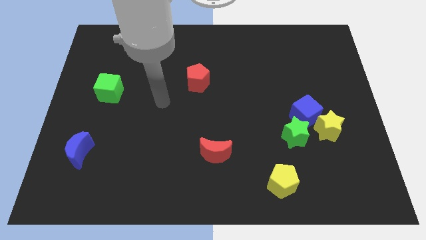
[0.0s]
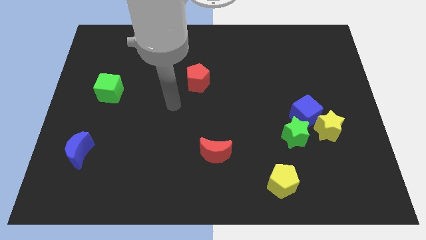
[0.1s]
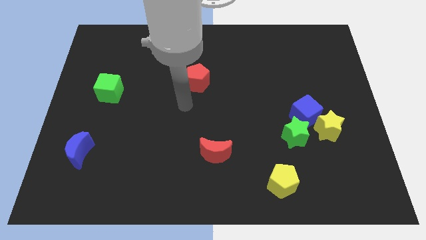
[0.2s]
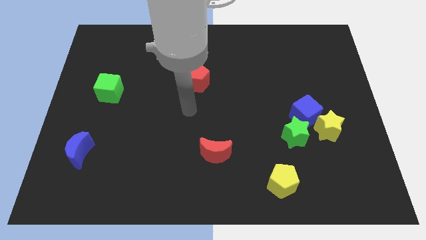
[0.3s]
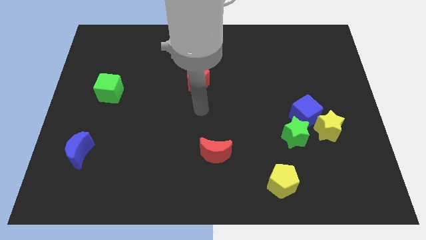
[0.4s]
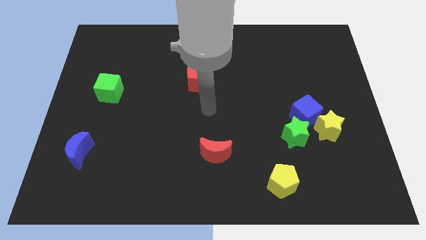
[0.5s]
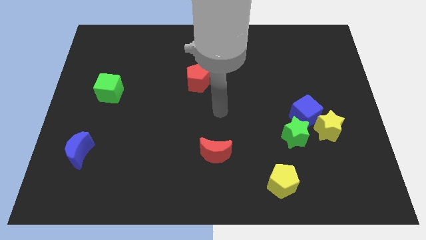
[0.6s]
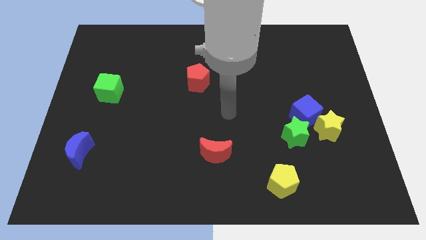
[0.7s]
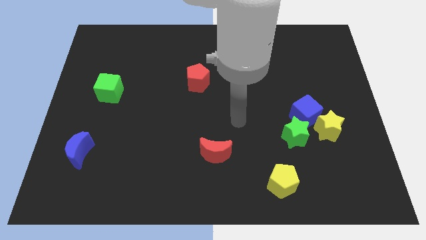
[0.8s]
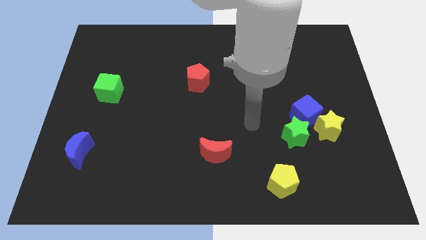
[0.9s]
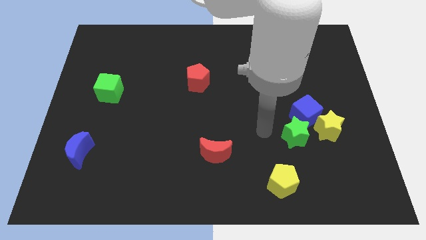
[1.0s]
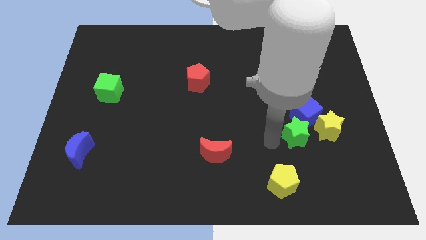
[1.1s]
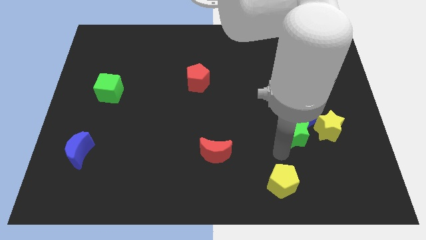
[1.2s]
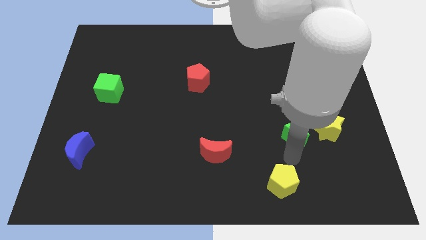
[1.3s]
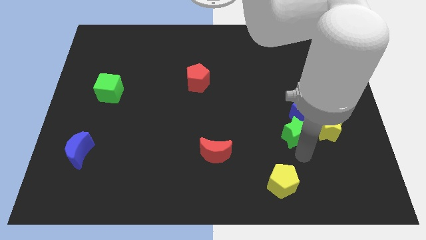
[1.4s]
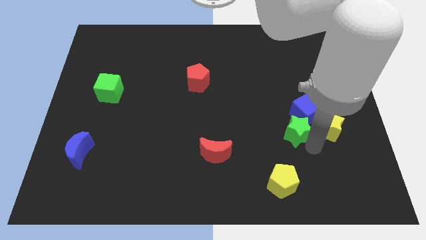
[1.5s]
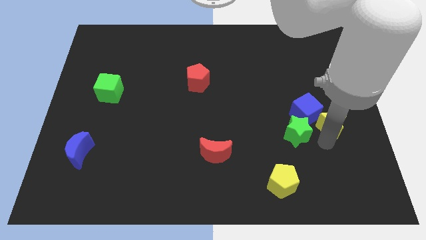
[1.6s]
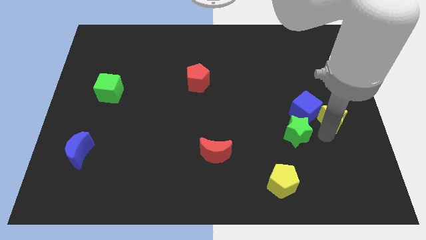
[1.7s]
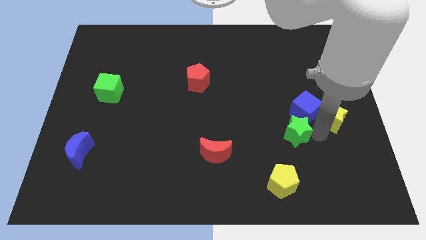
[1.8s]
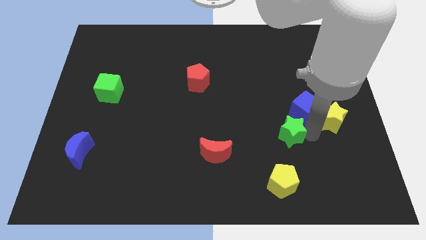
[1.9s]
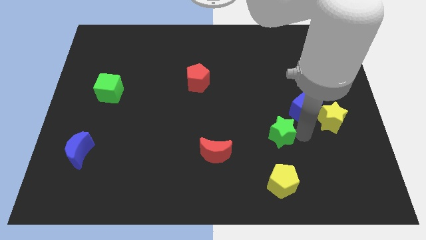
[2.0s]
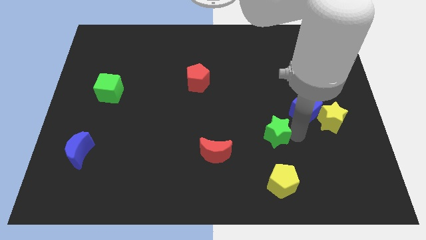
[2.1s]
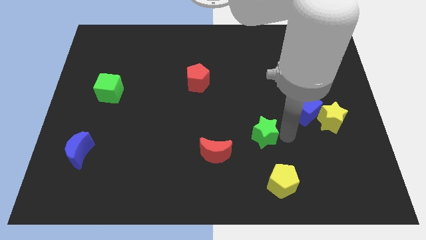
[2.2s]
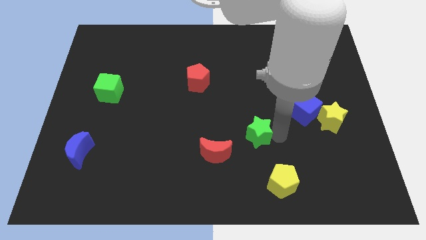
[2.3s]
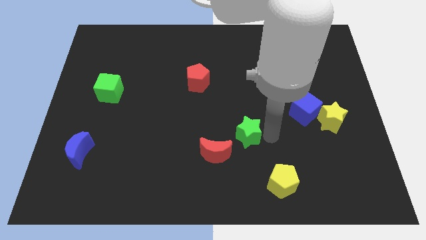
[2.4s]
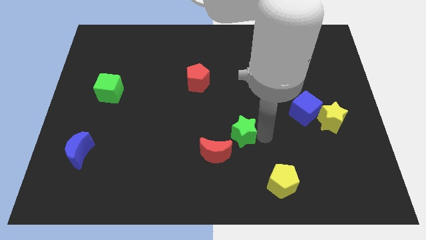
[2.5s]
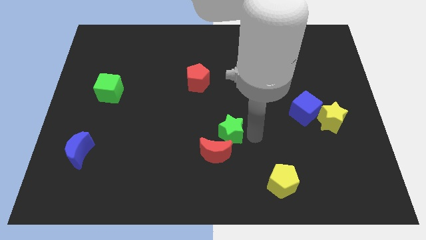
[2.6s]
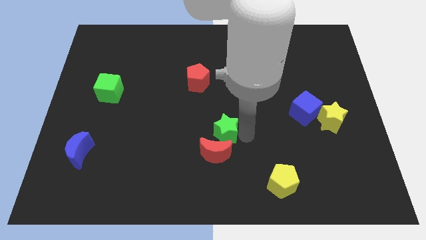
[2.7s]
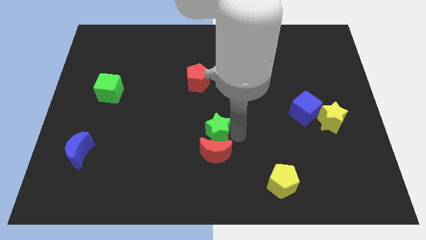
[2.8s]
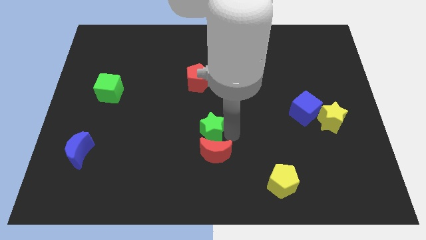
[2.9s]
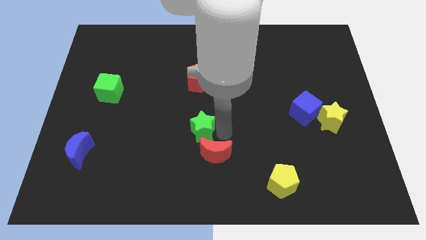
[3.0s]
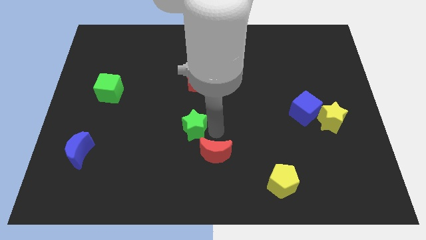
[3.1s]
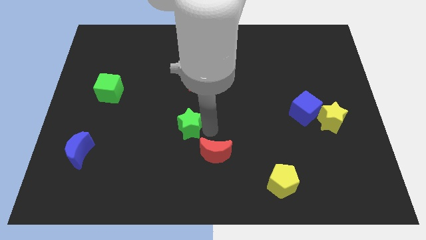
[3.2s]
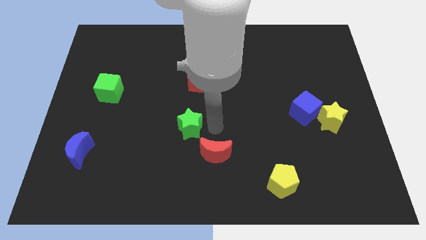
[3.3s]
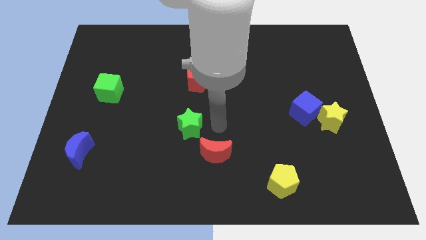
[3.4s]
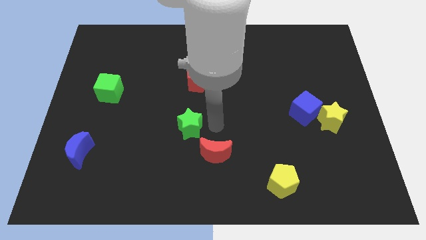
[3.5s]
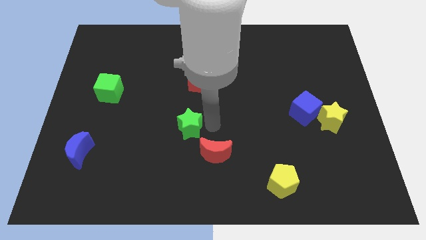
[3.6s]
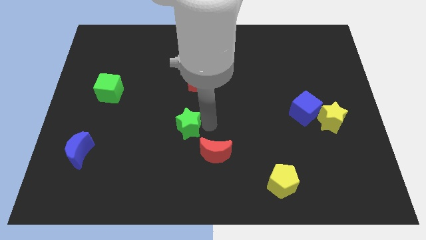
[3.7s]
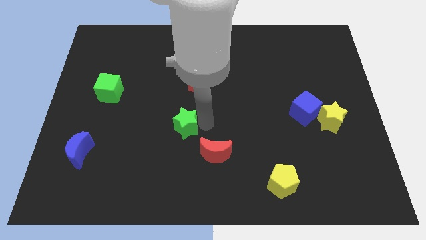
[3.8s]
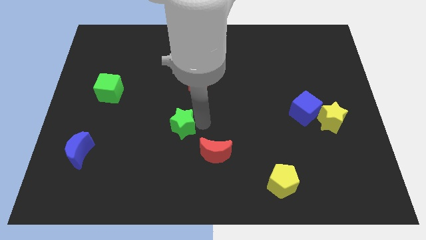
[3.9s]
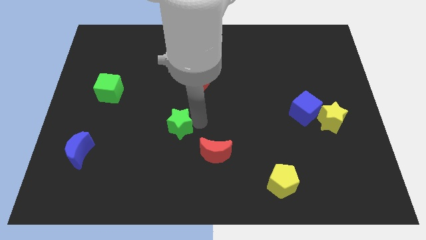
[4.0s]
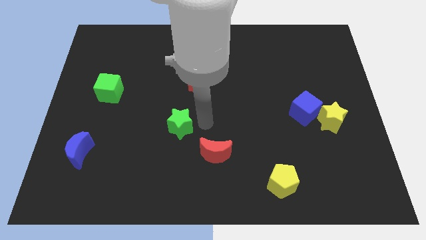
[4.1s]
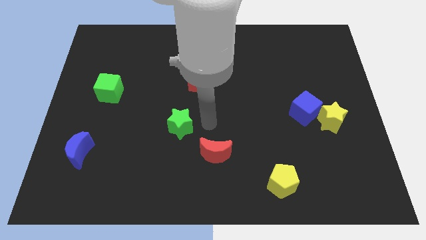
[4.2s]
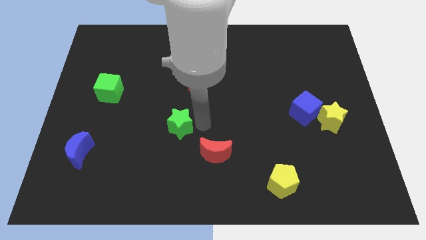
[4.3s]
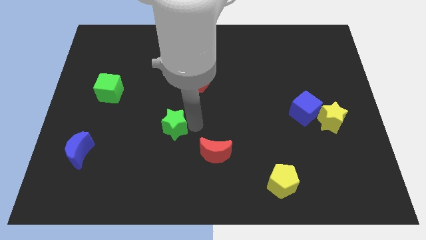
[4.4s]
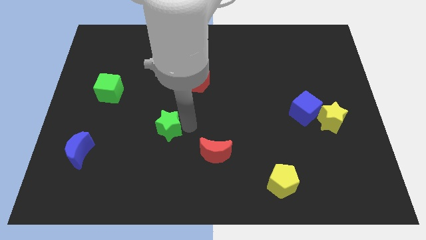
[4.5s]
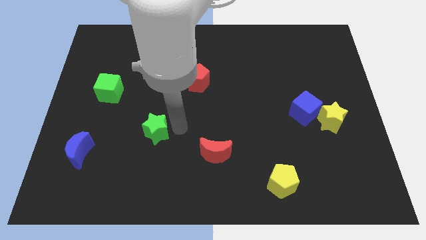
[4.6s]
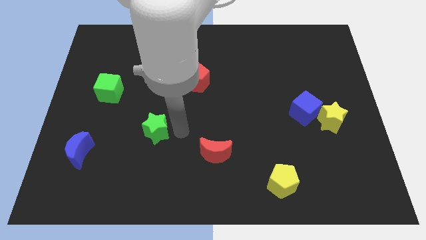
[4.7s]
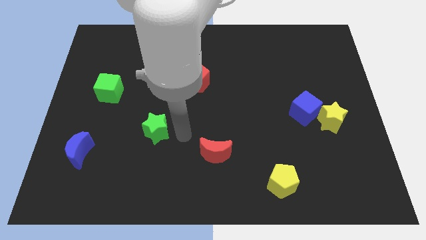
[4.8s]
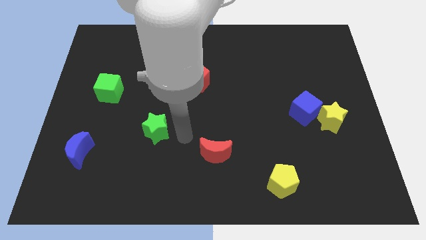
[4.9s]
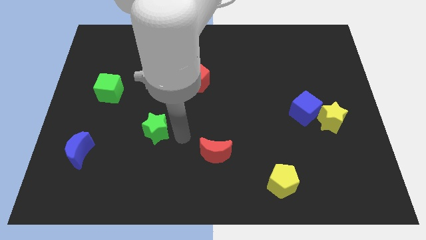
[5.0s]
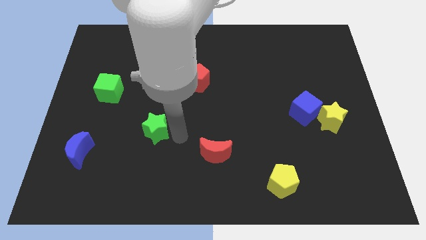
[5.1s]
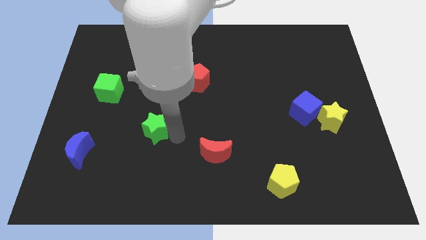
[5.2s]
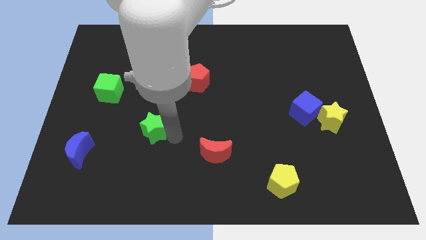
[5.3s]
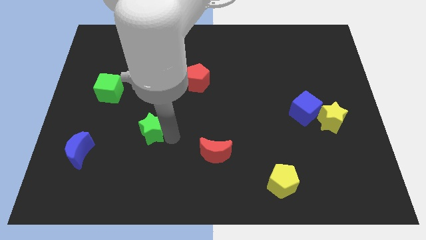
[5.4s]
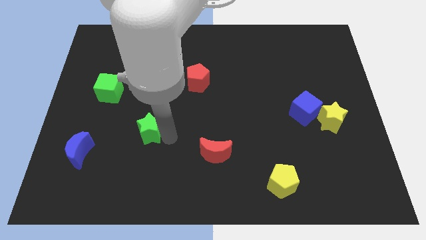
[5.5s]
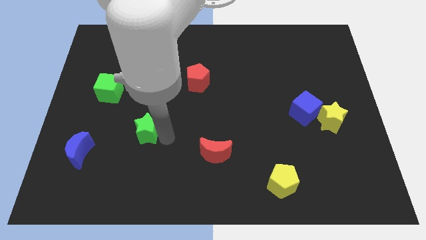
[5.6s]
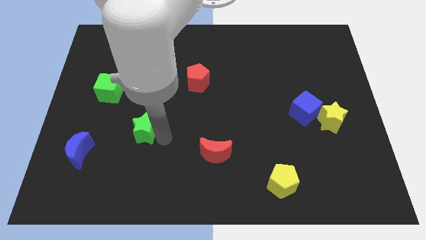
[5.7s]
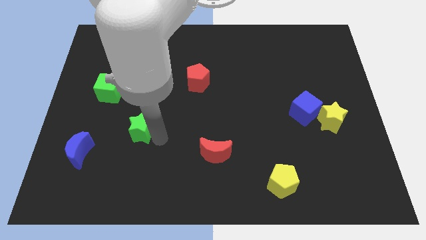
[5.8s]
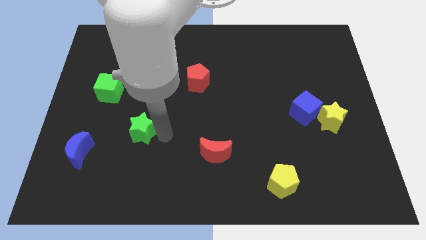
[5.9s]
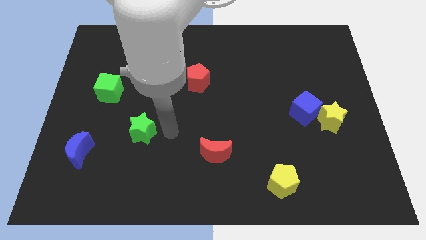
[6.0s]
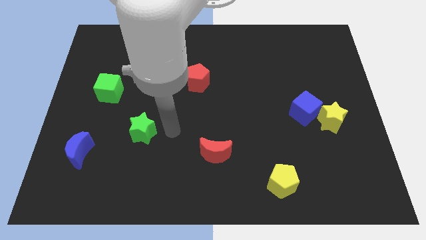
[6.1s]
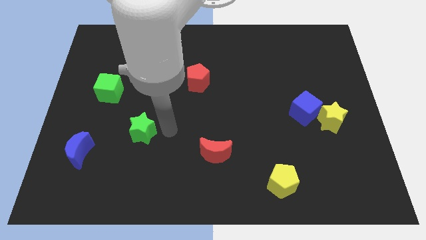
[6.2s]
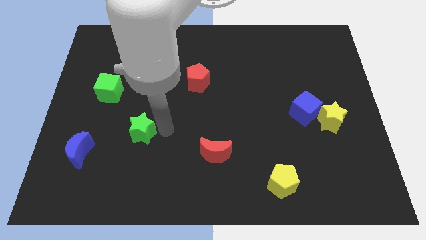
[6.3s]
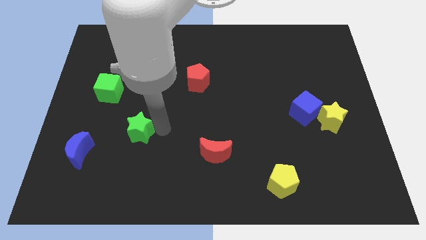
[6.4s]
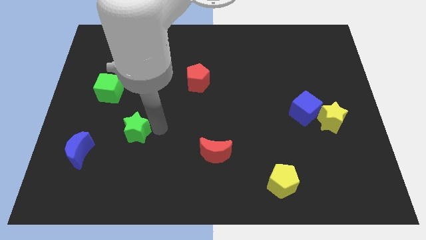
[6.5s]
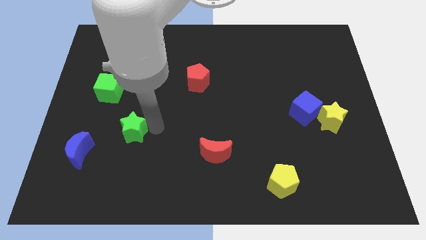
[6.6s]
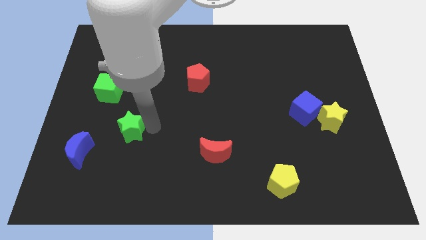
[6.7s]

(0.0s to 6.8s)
move the green star to the top right of the blue moon
